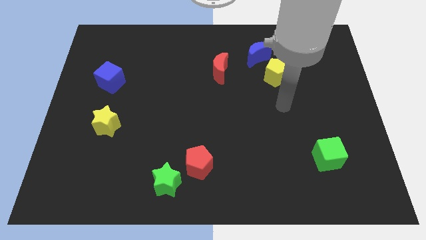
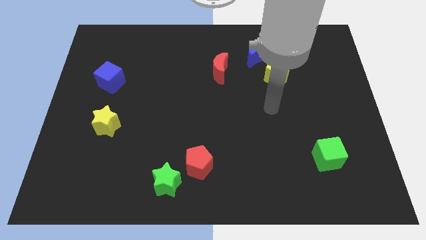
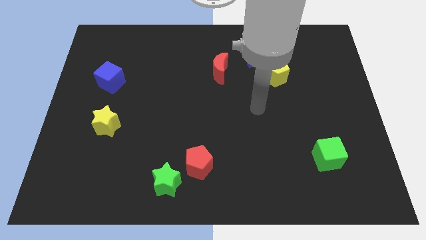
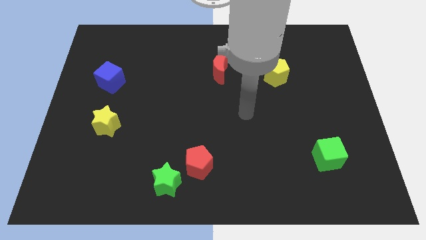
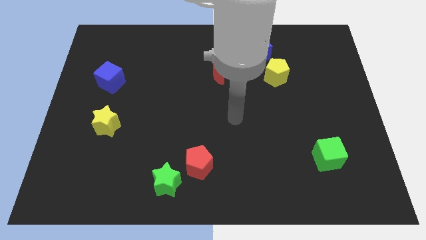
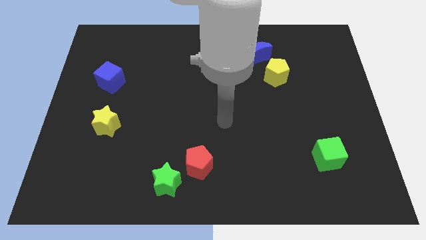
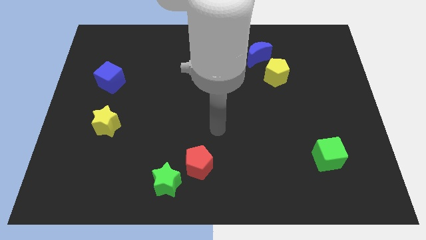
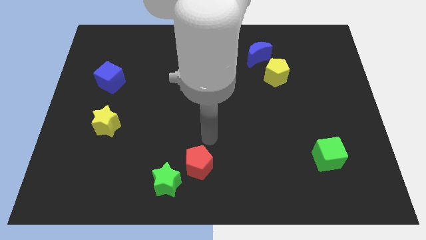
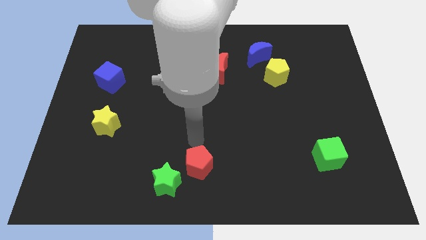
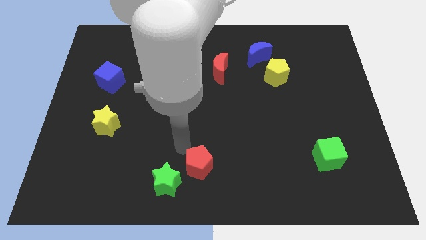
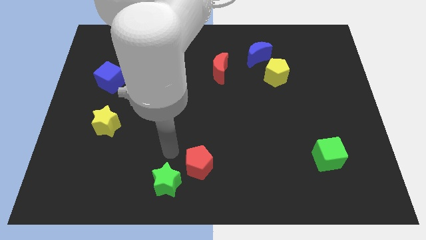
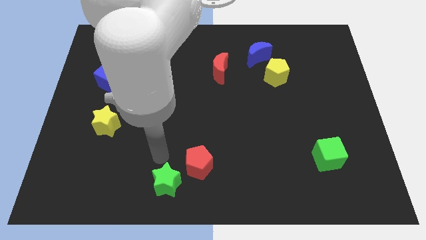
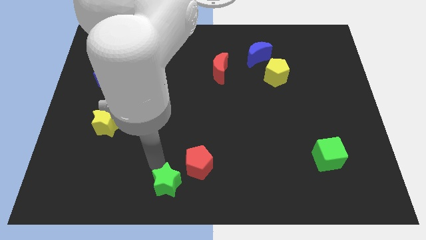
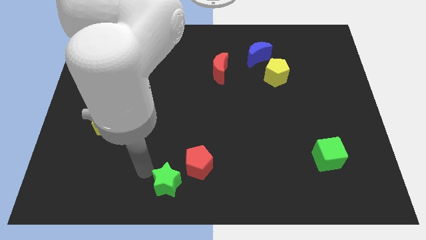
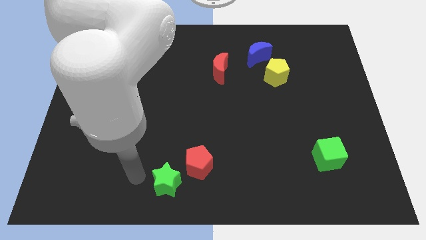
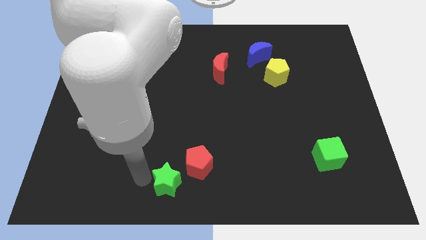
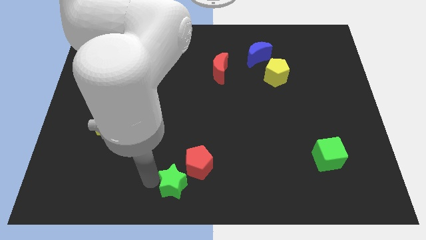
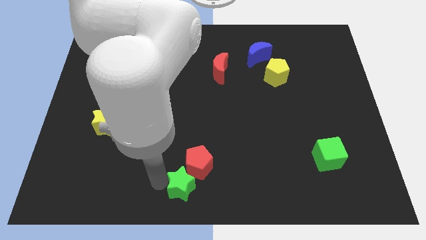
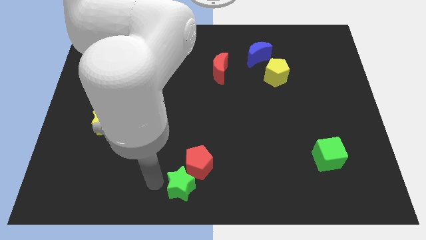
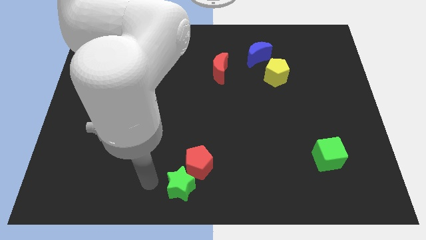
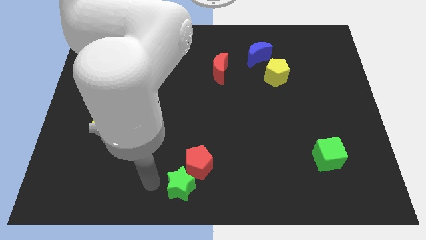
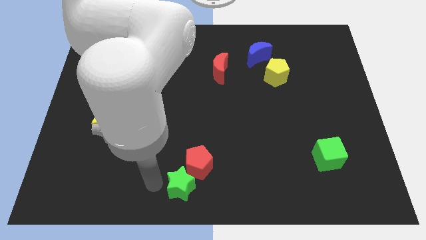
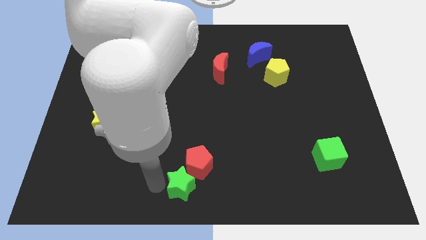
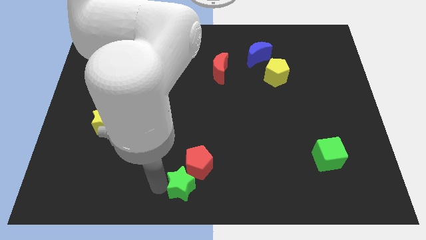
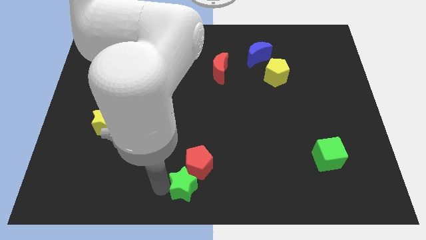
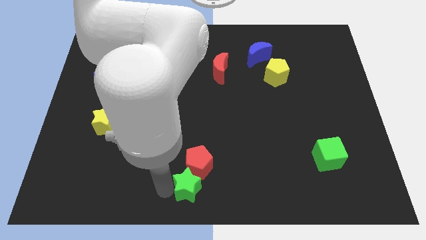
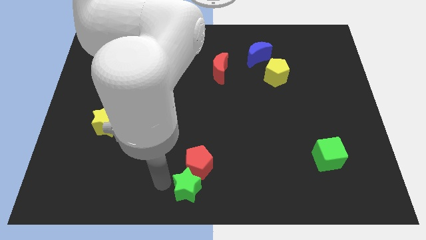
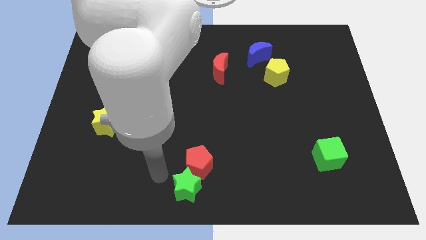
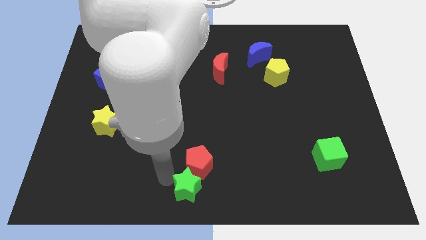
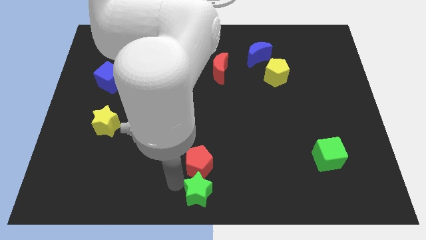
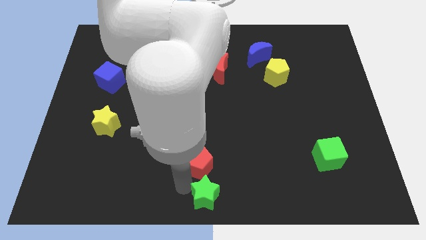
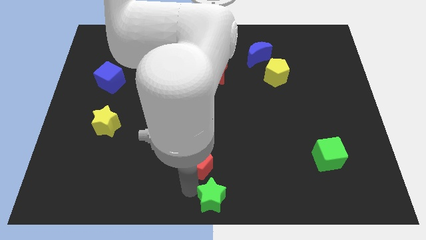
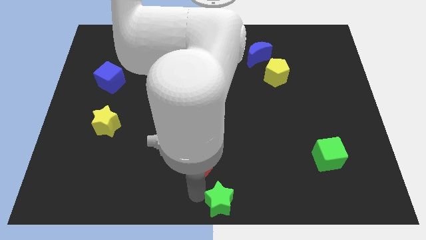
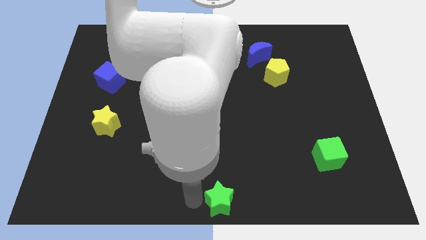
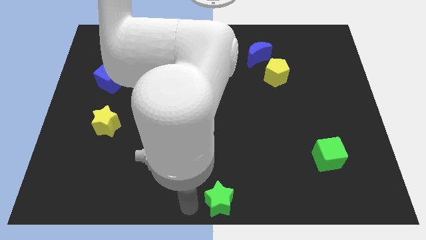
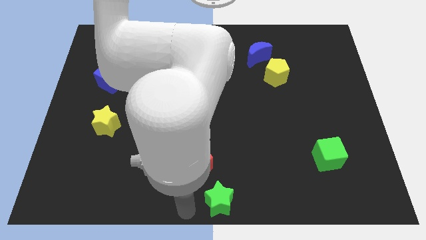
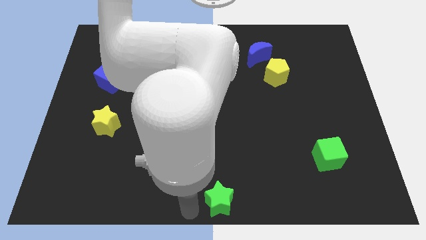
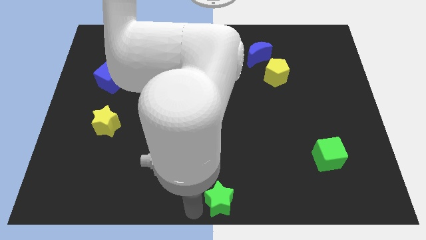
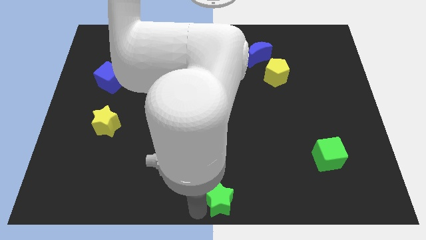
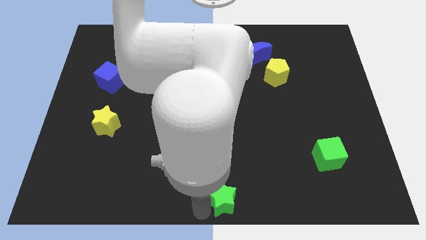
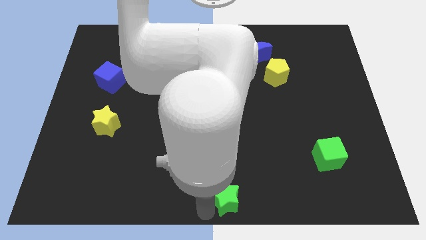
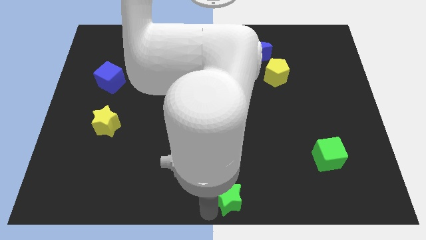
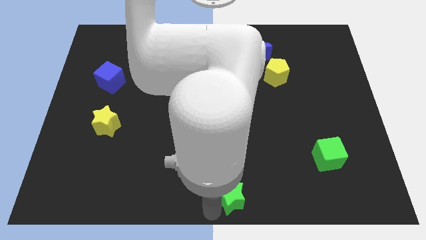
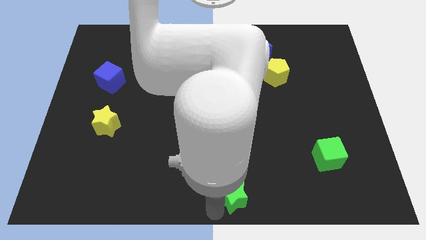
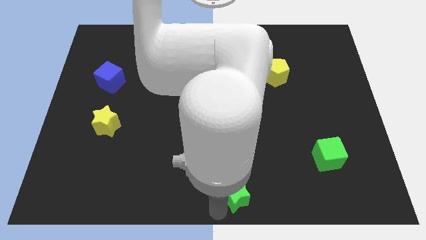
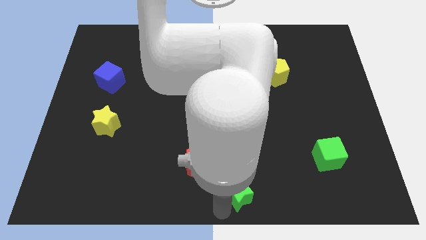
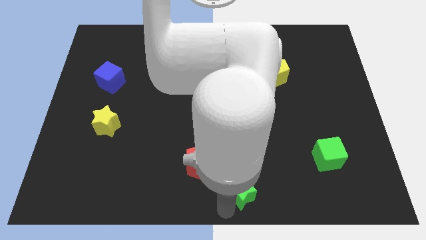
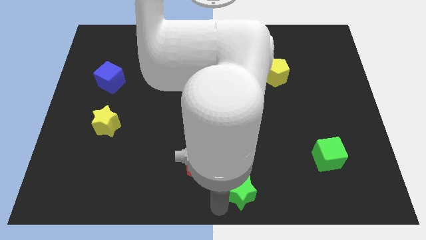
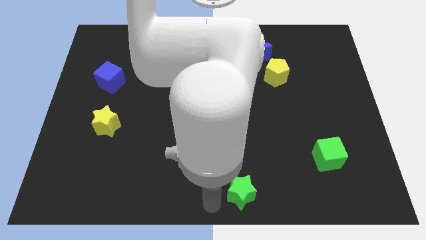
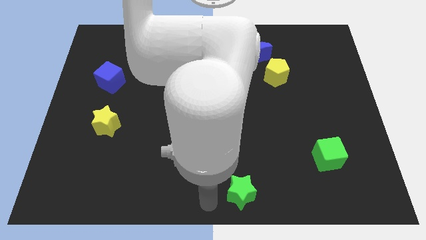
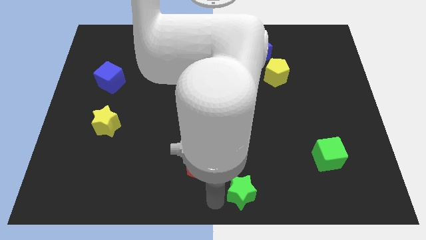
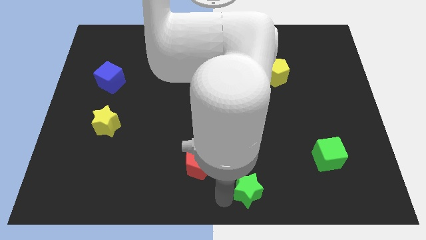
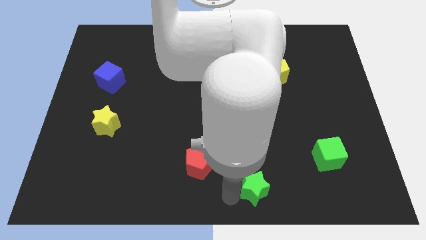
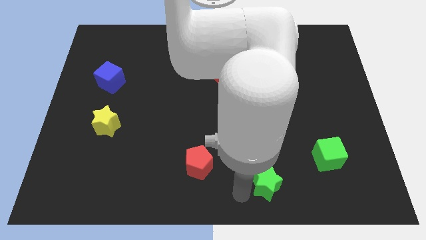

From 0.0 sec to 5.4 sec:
move the green star to the right

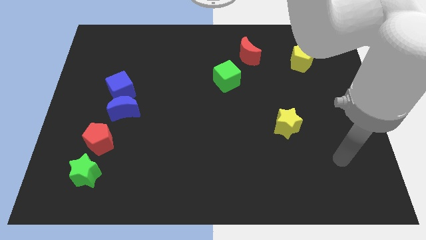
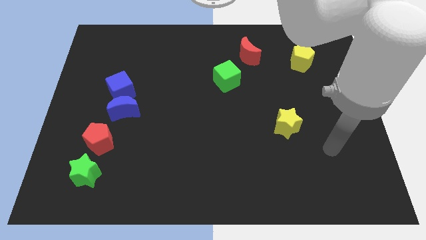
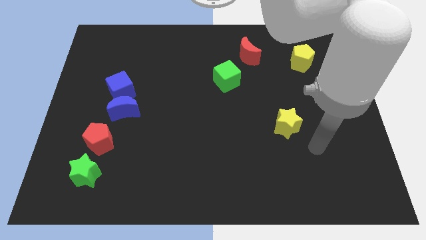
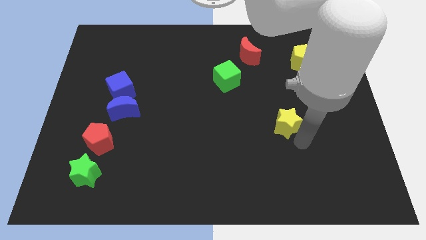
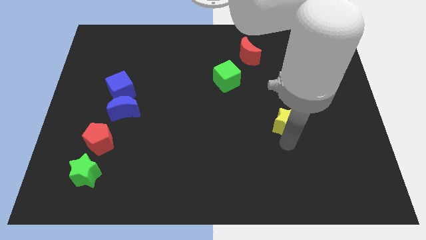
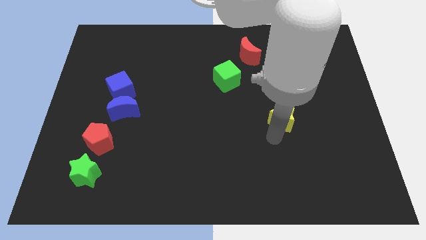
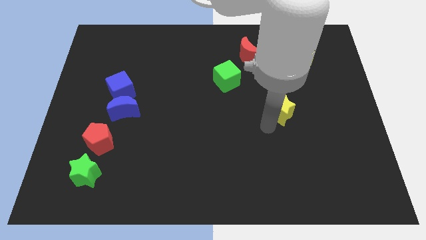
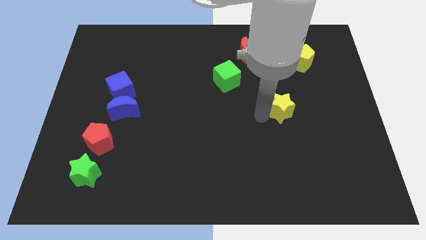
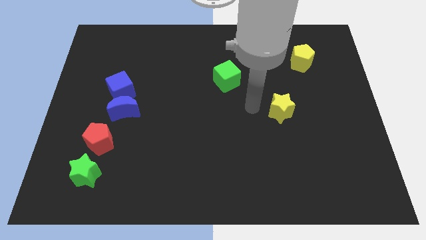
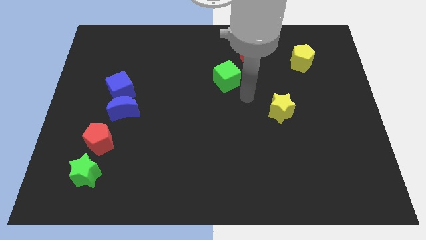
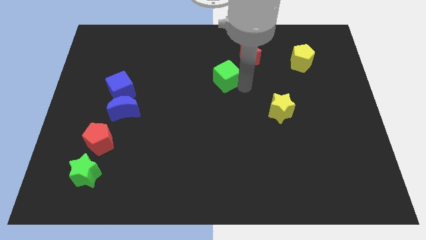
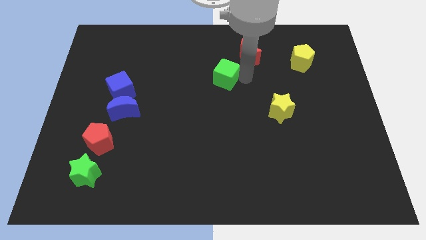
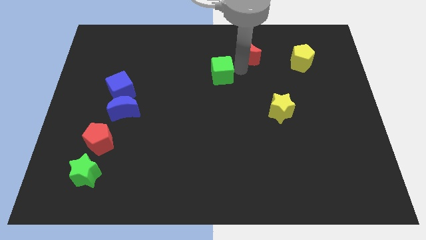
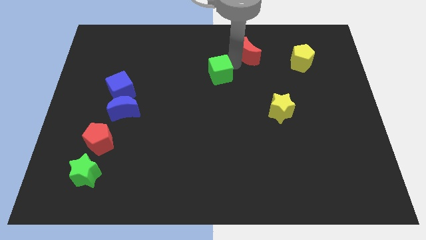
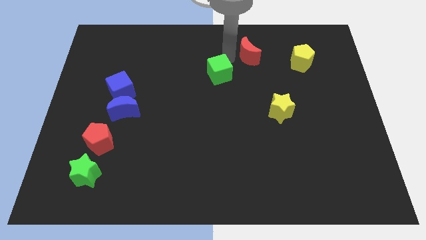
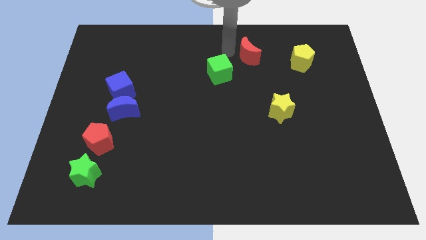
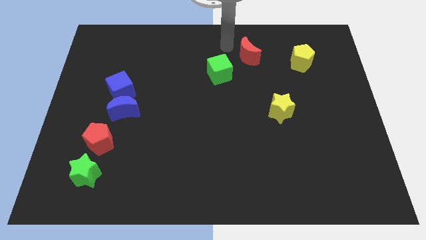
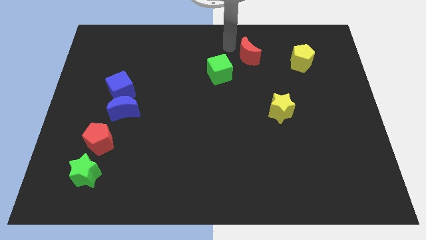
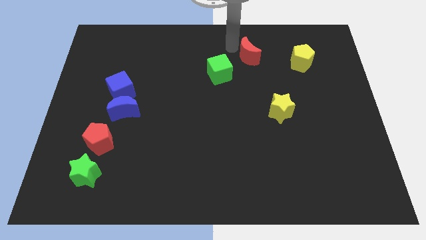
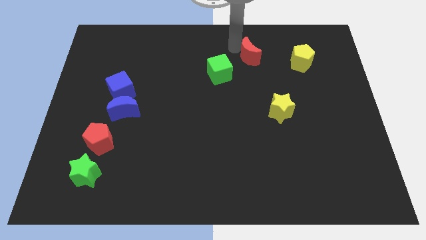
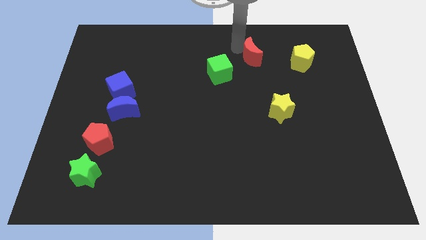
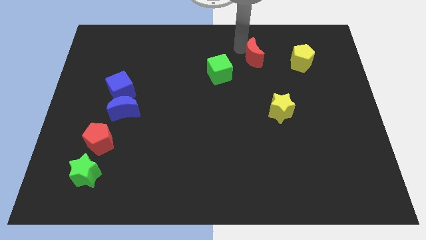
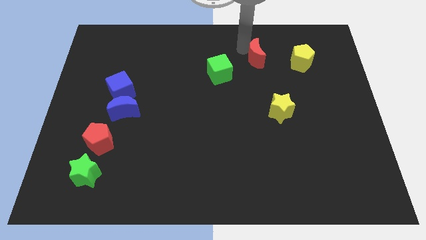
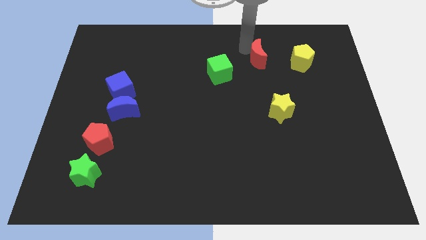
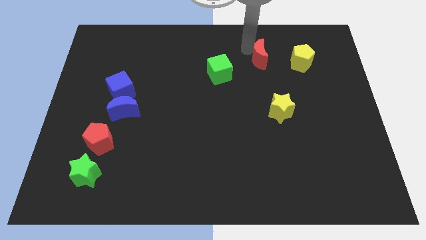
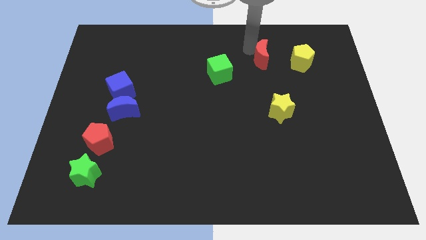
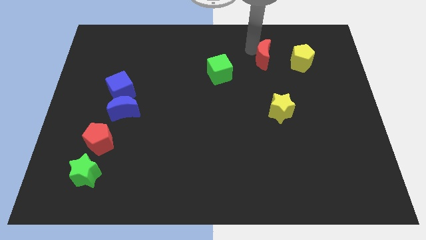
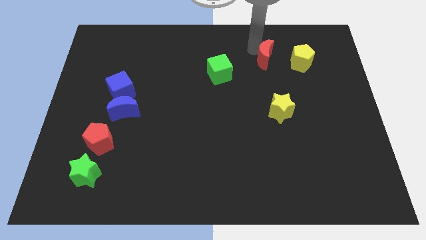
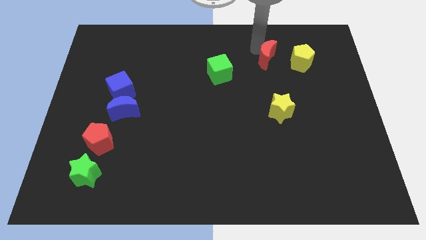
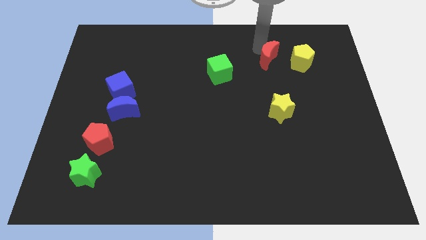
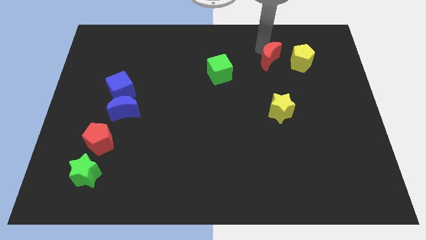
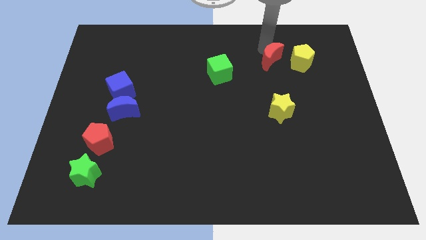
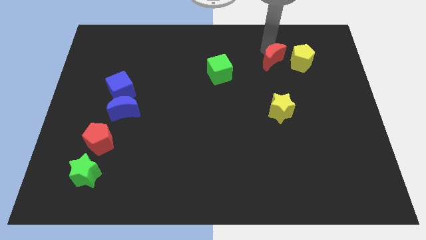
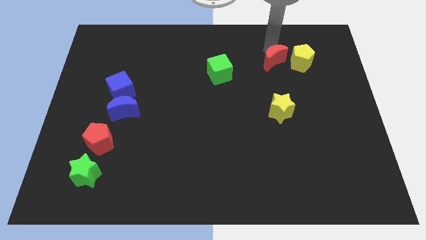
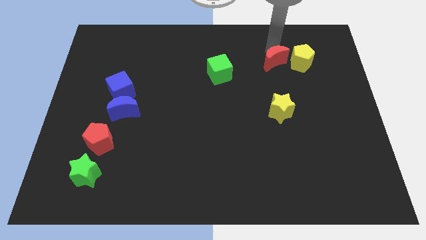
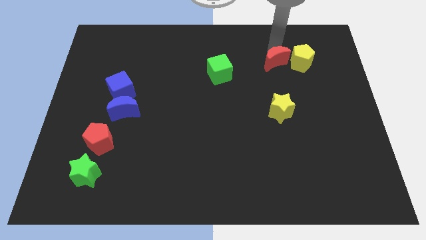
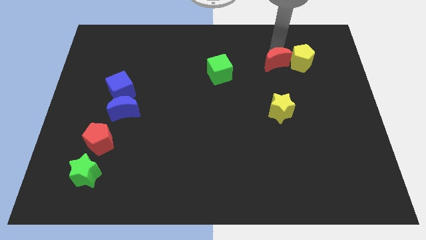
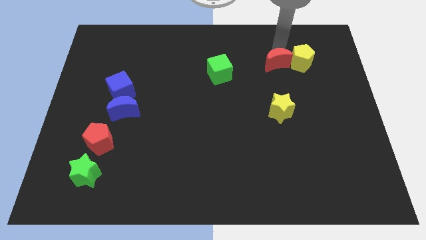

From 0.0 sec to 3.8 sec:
slightly move the red moon down and right diagonally
